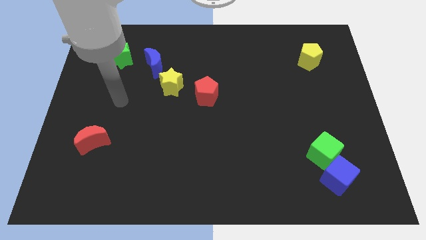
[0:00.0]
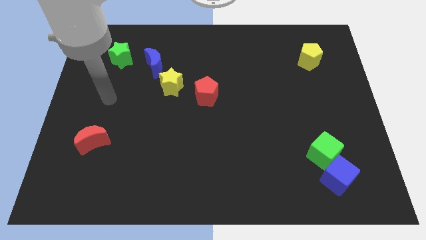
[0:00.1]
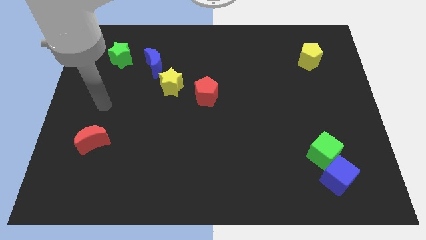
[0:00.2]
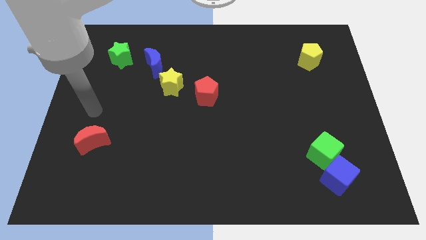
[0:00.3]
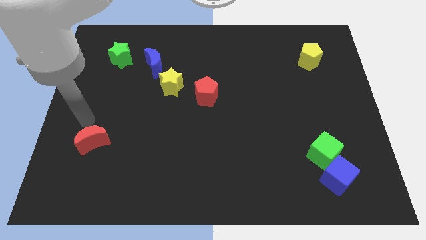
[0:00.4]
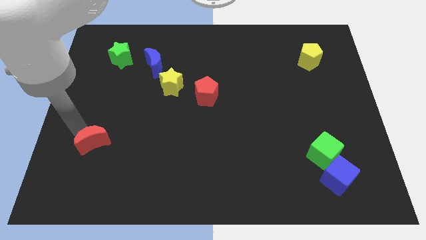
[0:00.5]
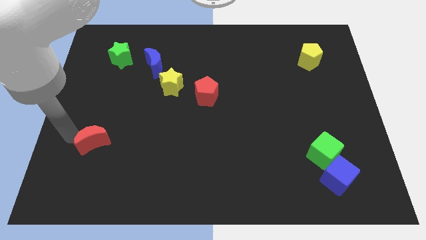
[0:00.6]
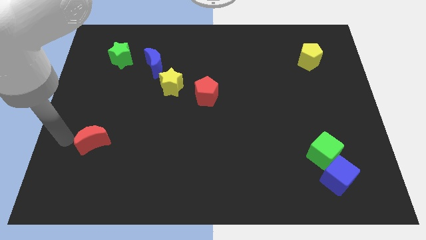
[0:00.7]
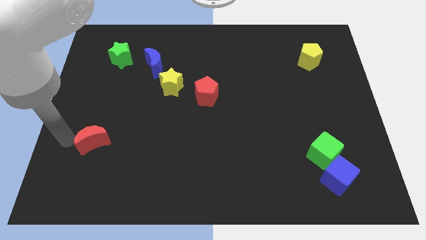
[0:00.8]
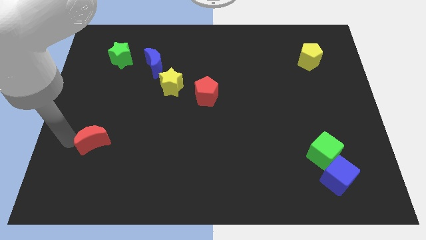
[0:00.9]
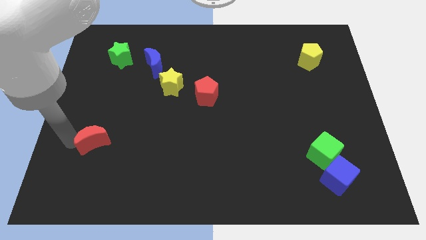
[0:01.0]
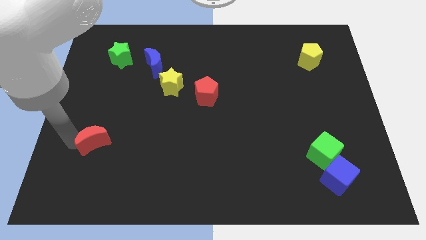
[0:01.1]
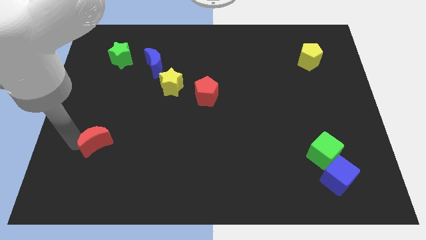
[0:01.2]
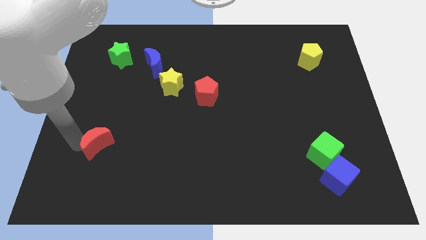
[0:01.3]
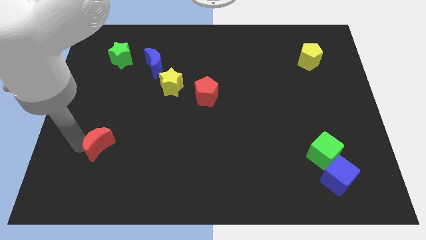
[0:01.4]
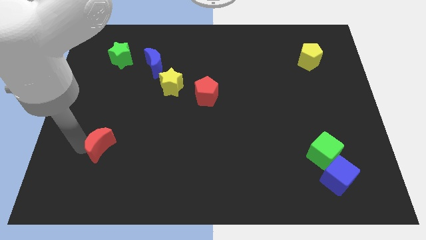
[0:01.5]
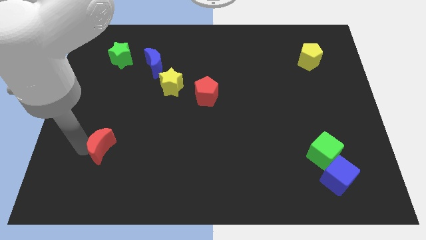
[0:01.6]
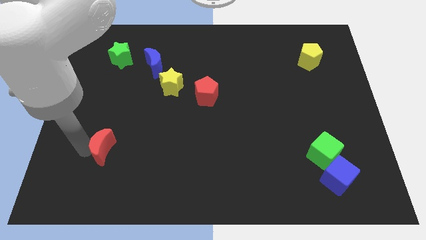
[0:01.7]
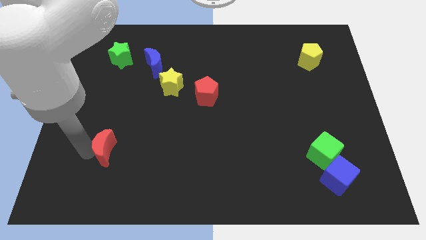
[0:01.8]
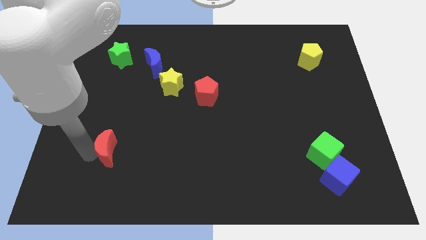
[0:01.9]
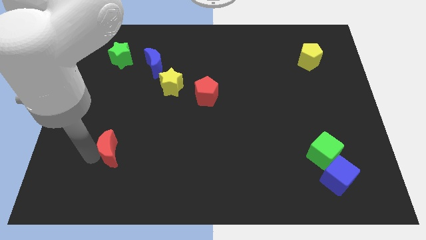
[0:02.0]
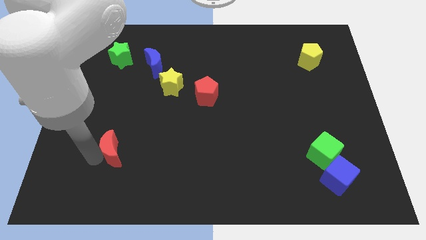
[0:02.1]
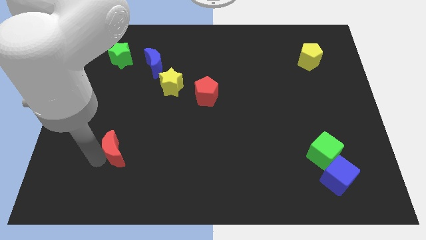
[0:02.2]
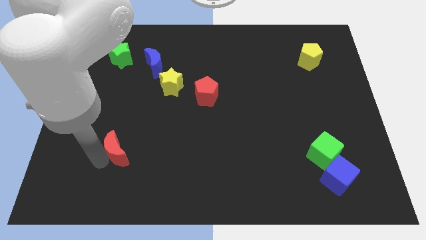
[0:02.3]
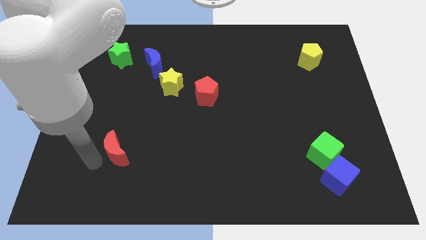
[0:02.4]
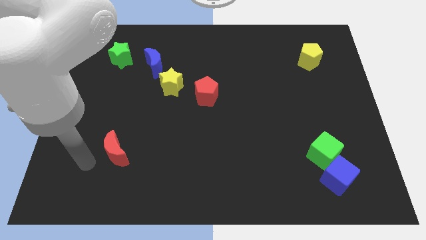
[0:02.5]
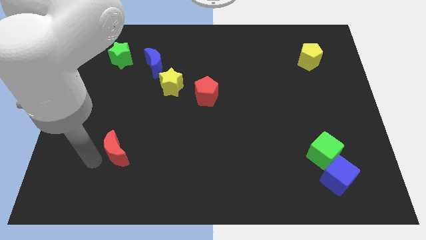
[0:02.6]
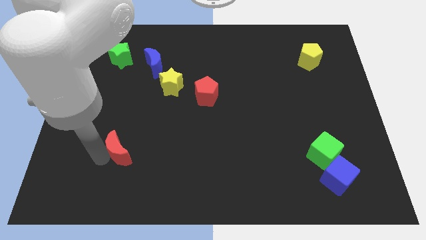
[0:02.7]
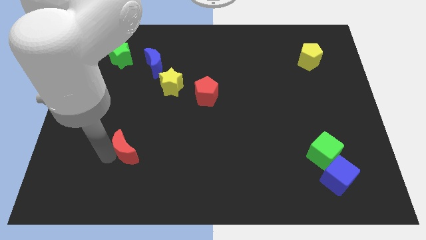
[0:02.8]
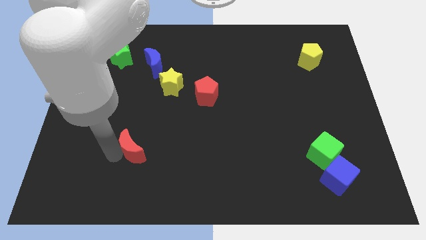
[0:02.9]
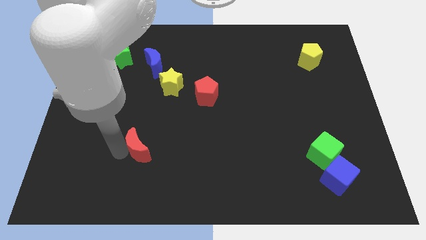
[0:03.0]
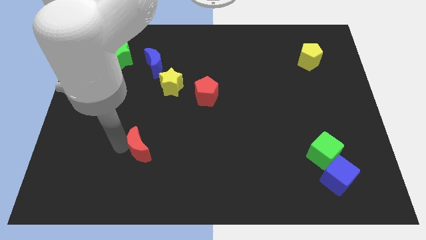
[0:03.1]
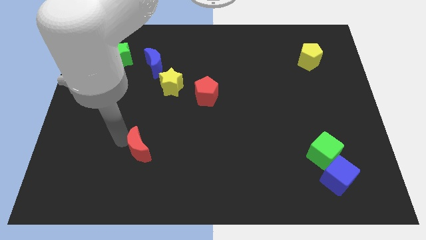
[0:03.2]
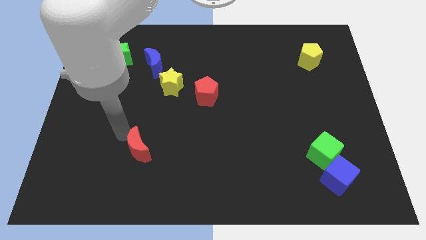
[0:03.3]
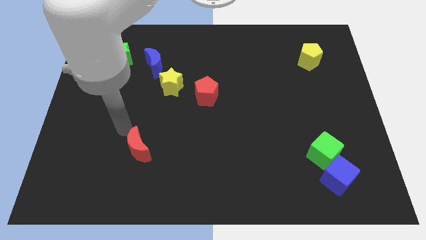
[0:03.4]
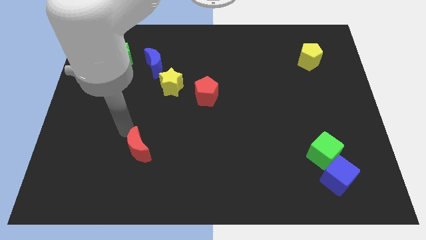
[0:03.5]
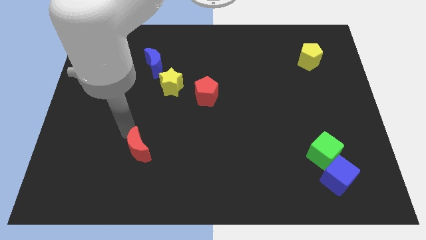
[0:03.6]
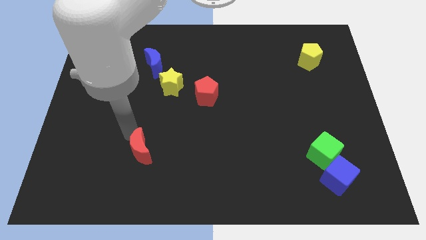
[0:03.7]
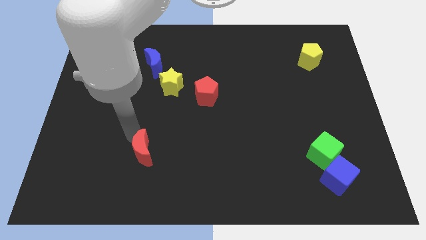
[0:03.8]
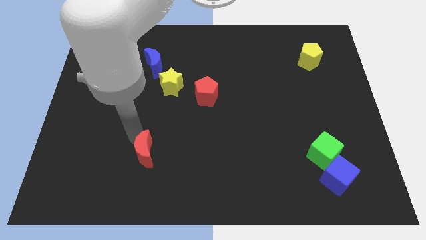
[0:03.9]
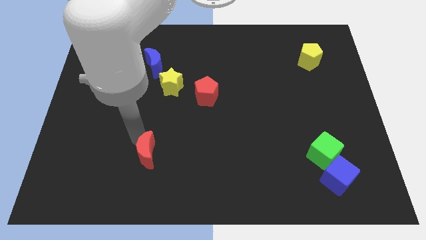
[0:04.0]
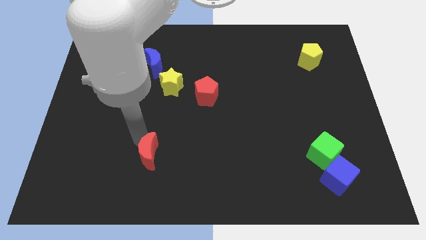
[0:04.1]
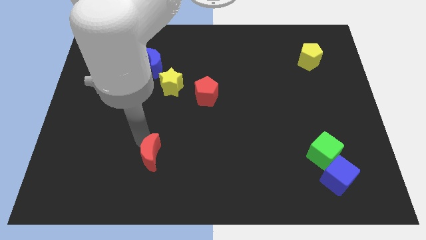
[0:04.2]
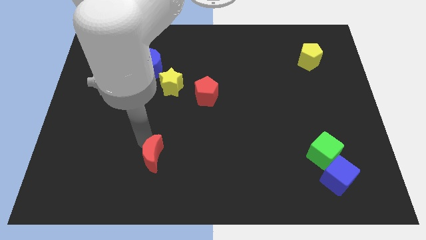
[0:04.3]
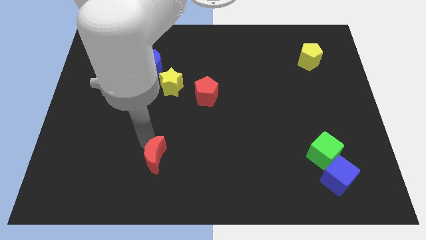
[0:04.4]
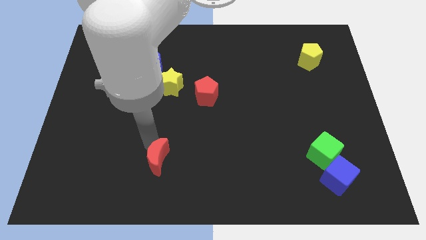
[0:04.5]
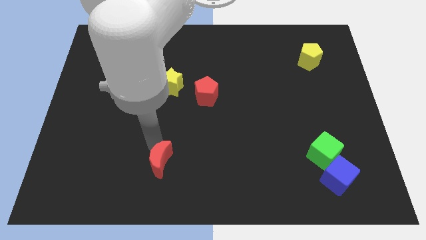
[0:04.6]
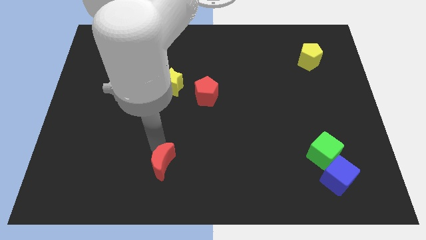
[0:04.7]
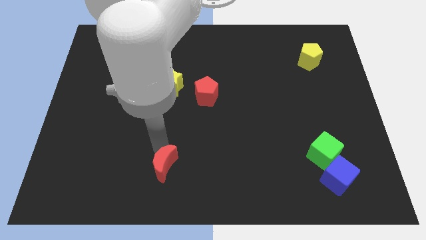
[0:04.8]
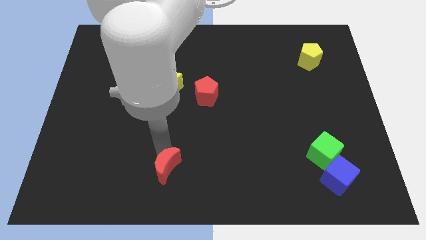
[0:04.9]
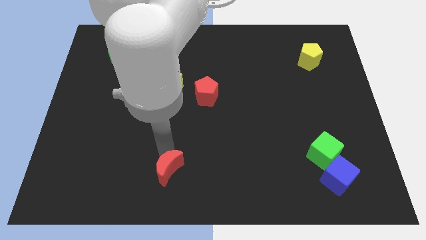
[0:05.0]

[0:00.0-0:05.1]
put the red moon to the bottom side

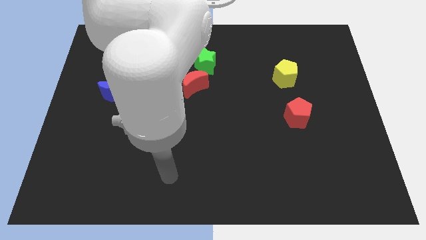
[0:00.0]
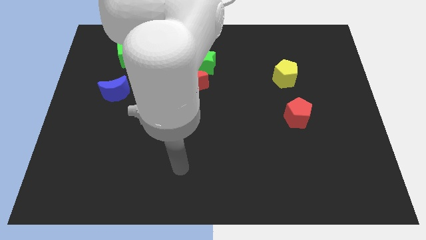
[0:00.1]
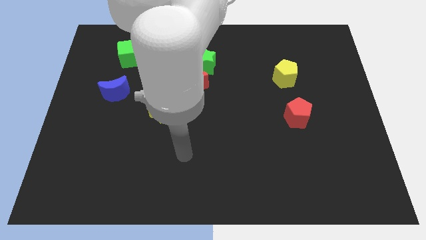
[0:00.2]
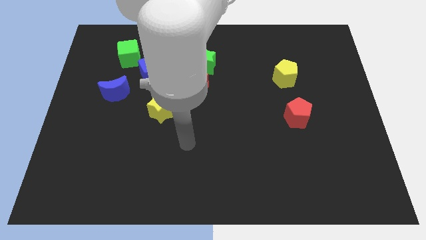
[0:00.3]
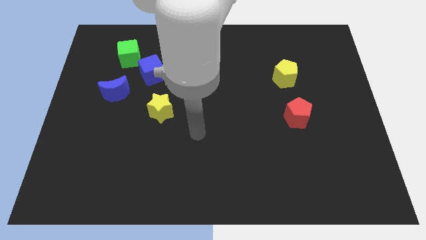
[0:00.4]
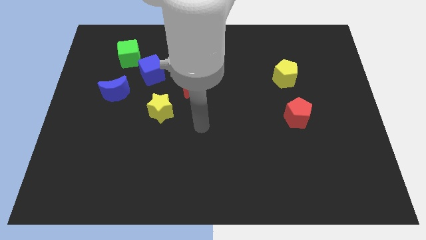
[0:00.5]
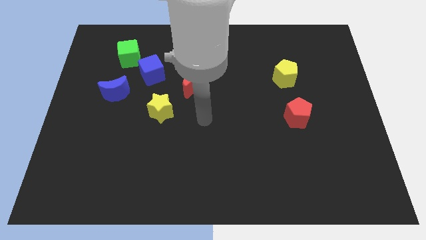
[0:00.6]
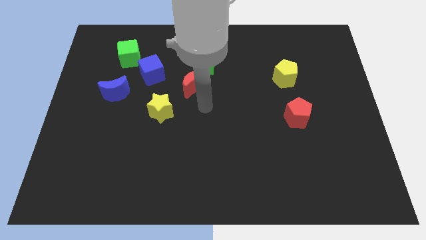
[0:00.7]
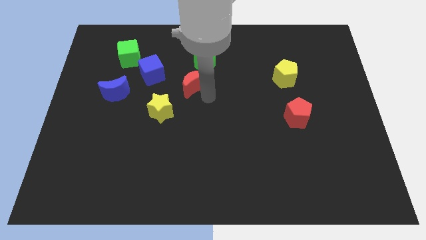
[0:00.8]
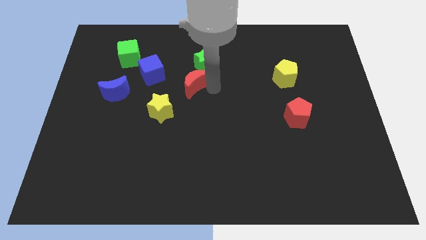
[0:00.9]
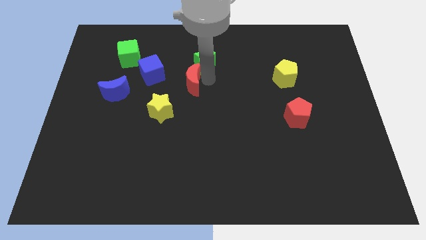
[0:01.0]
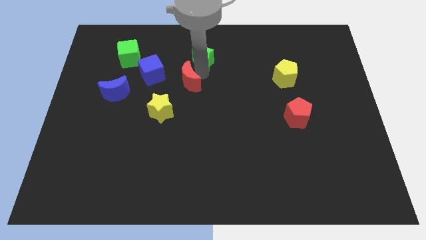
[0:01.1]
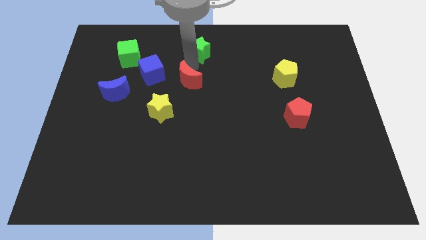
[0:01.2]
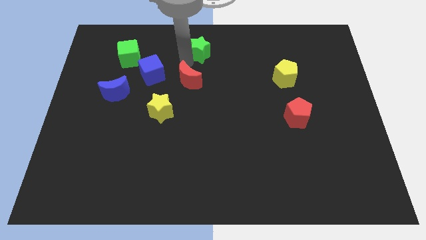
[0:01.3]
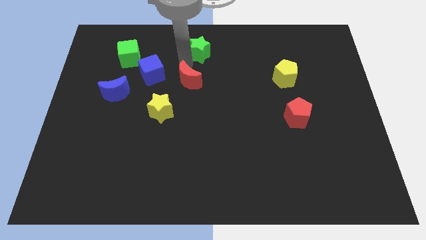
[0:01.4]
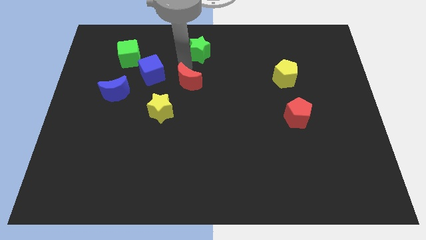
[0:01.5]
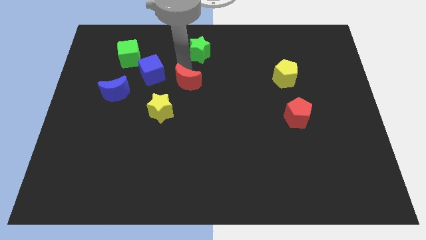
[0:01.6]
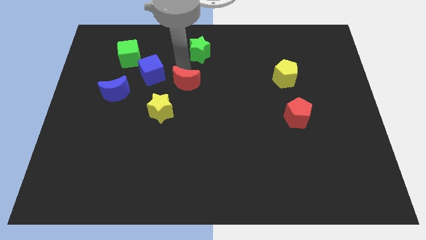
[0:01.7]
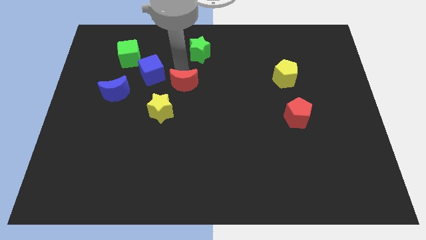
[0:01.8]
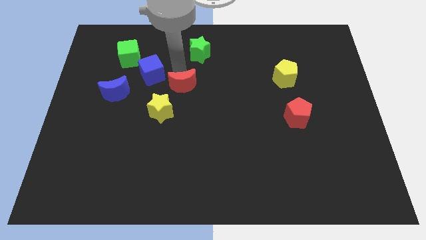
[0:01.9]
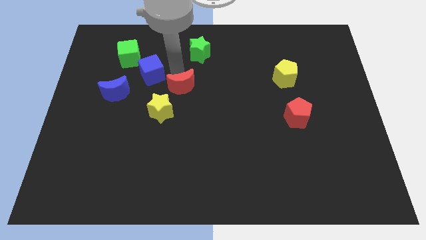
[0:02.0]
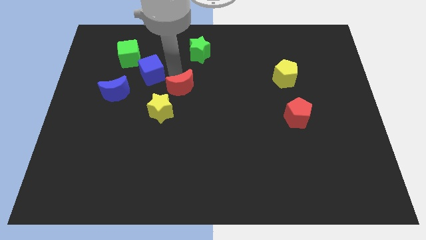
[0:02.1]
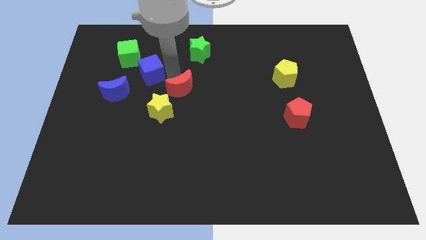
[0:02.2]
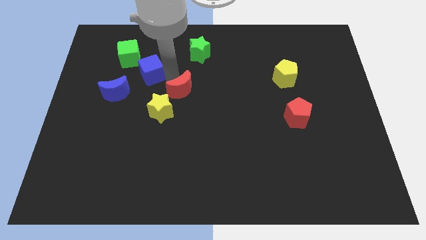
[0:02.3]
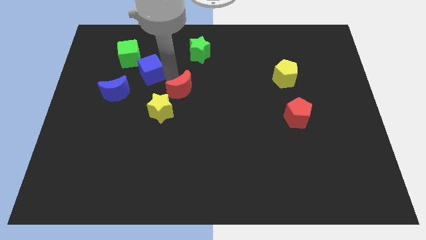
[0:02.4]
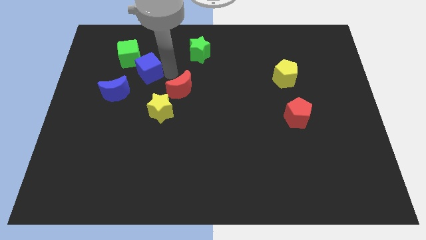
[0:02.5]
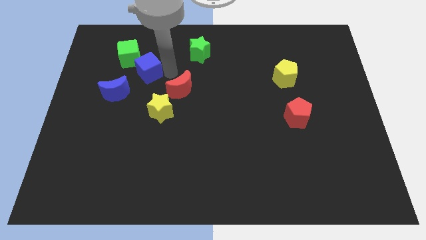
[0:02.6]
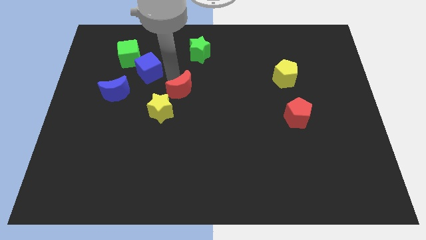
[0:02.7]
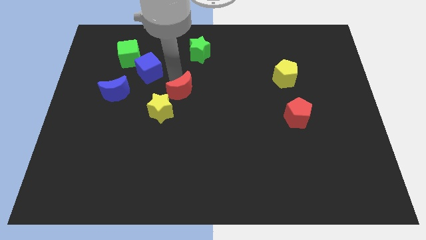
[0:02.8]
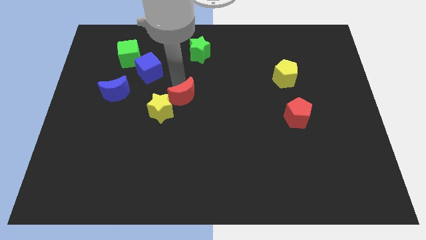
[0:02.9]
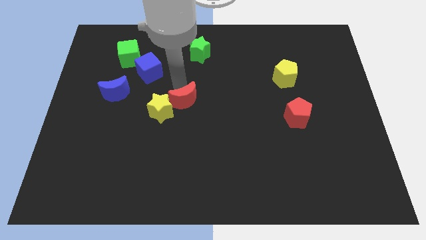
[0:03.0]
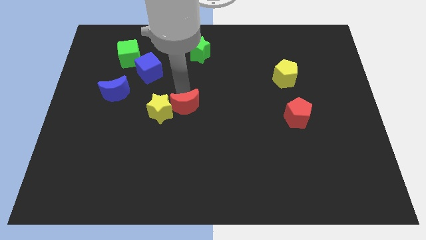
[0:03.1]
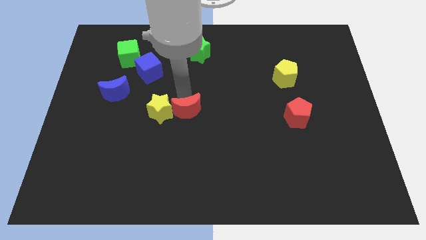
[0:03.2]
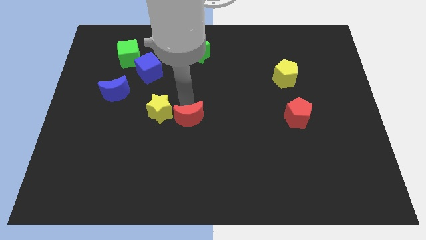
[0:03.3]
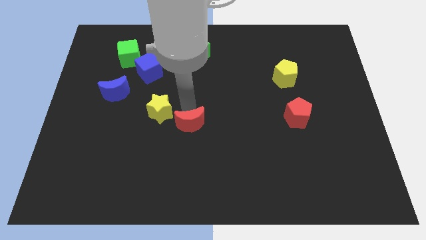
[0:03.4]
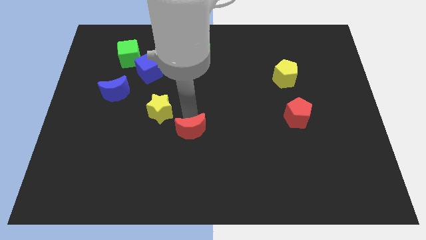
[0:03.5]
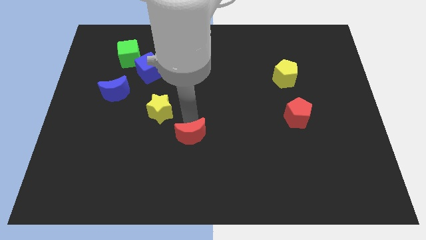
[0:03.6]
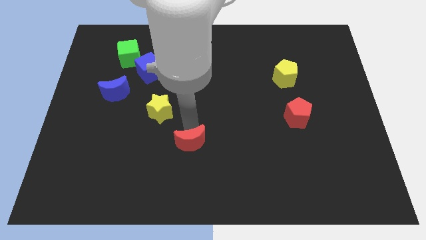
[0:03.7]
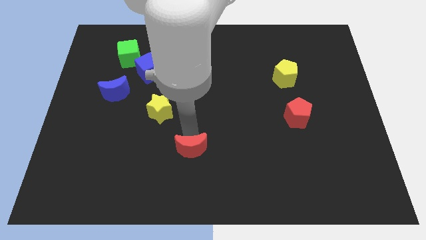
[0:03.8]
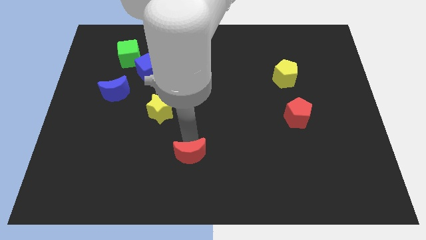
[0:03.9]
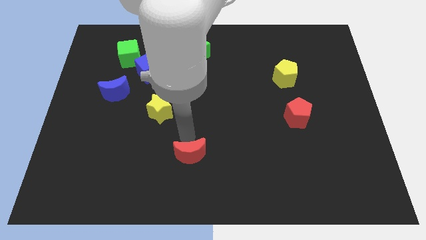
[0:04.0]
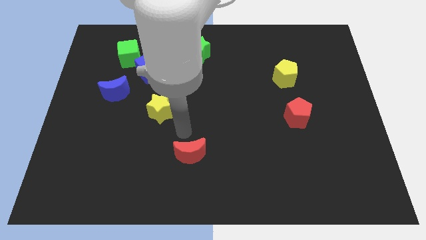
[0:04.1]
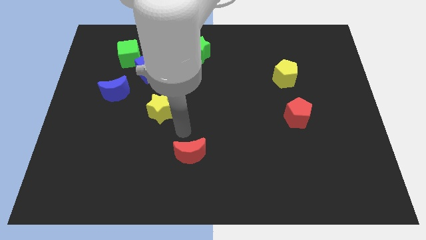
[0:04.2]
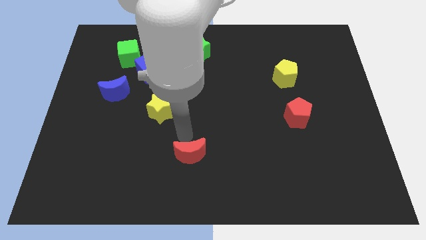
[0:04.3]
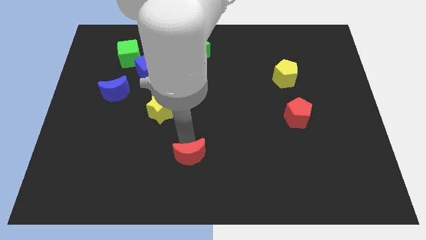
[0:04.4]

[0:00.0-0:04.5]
push the red moon to the bottom side
